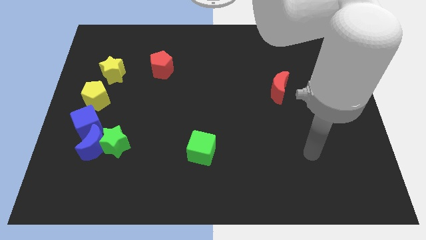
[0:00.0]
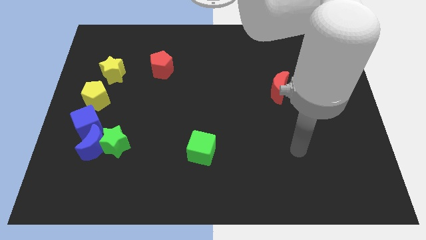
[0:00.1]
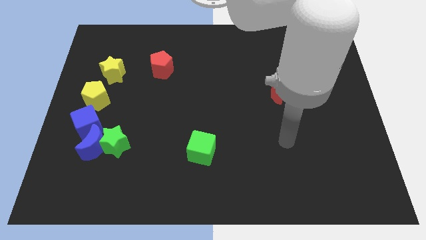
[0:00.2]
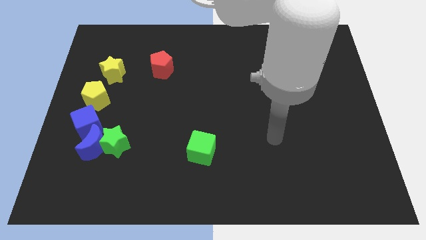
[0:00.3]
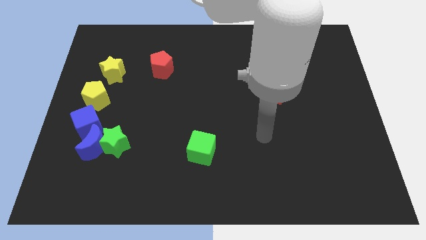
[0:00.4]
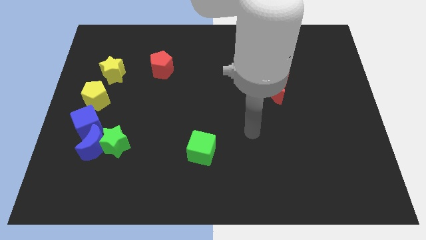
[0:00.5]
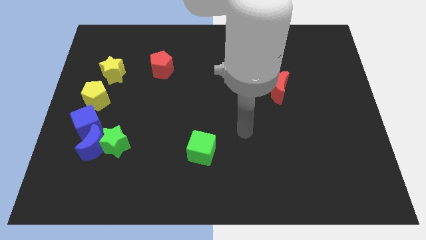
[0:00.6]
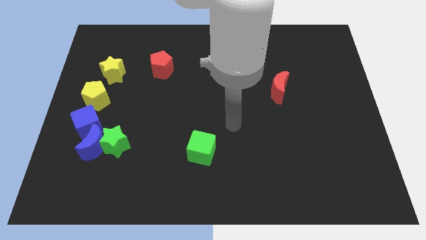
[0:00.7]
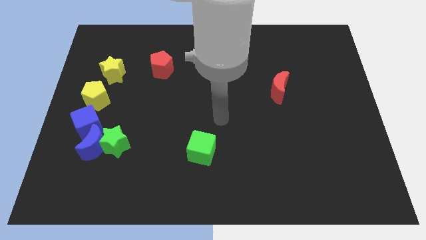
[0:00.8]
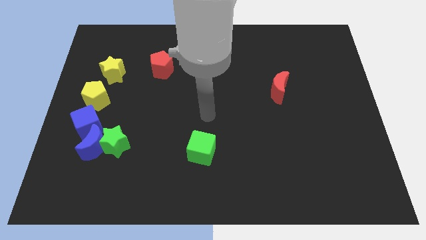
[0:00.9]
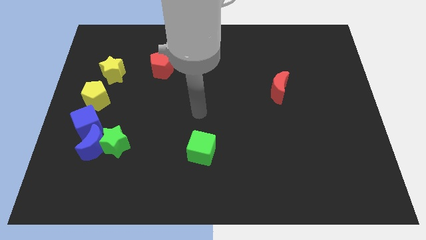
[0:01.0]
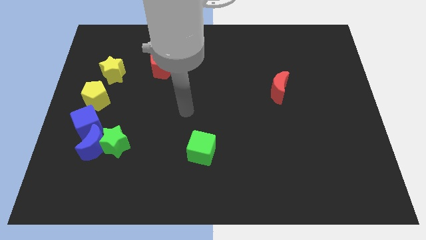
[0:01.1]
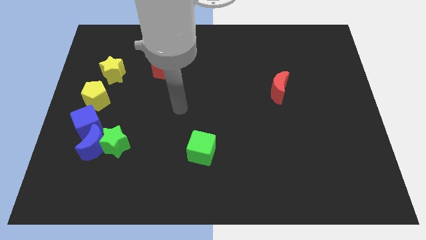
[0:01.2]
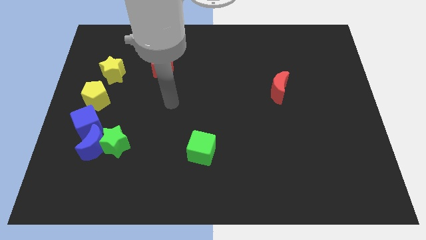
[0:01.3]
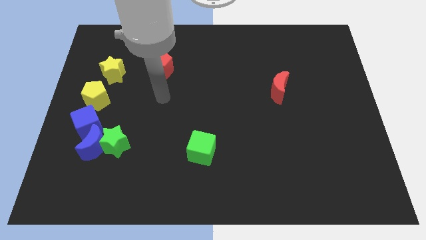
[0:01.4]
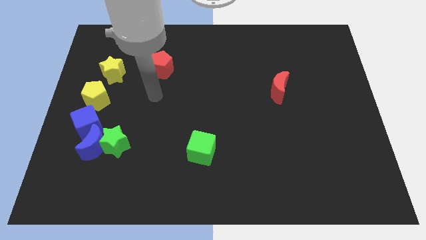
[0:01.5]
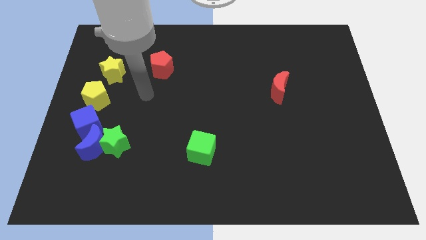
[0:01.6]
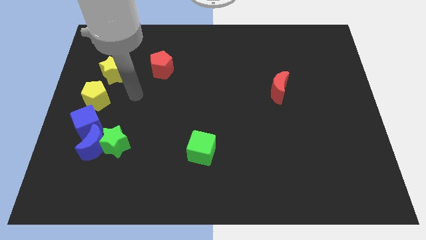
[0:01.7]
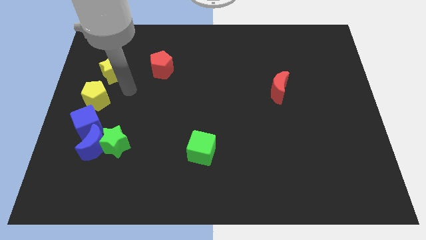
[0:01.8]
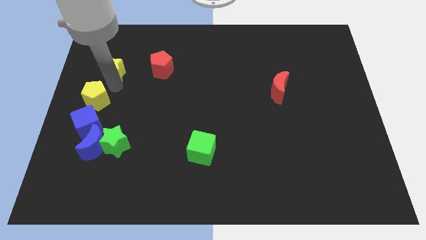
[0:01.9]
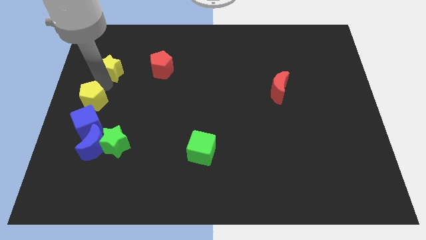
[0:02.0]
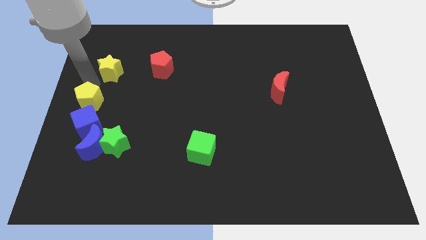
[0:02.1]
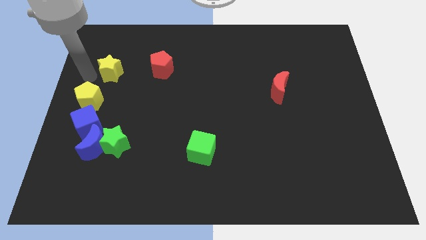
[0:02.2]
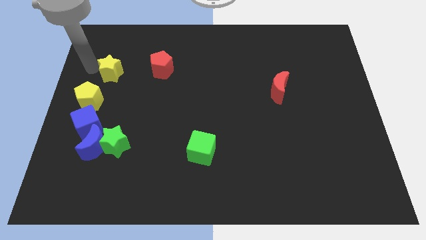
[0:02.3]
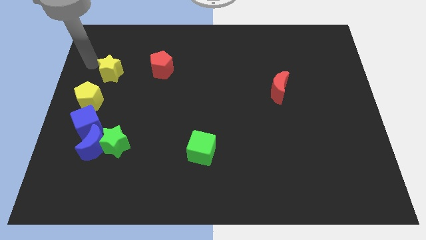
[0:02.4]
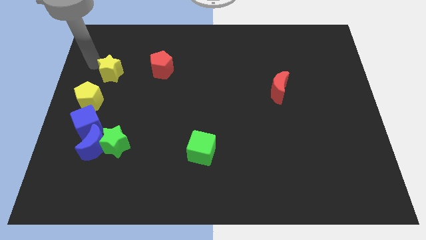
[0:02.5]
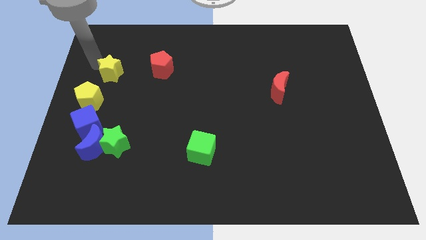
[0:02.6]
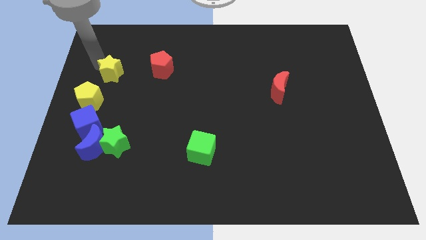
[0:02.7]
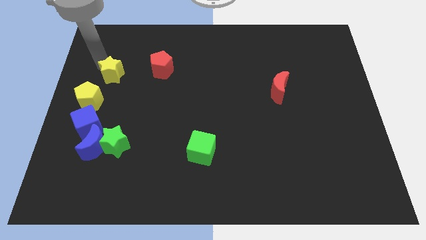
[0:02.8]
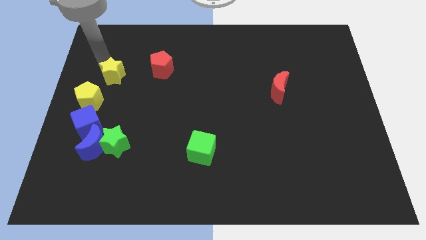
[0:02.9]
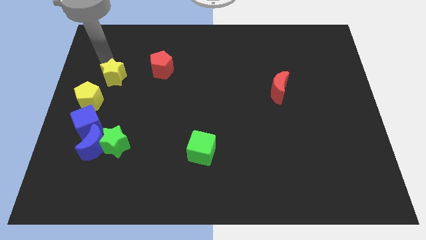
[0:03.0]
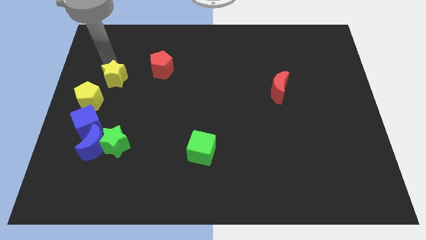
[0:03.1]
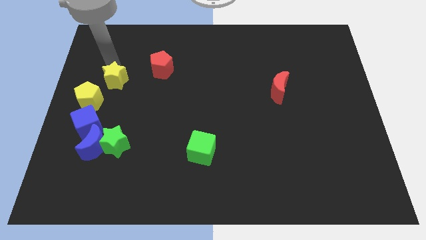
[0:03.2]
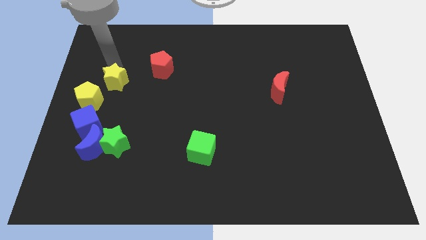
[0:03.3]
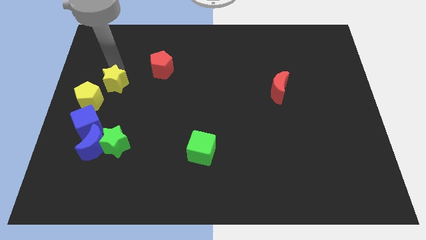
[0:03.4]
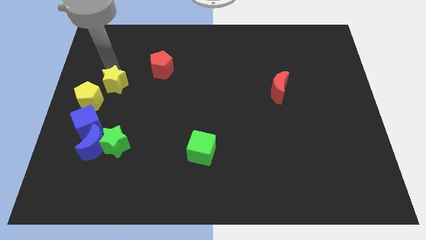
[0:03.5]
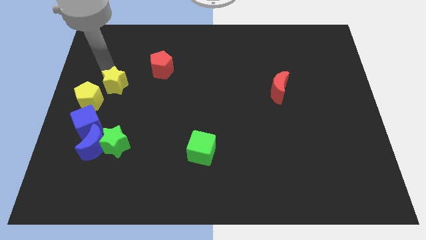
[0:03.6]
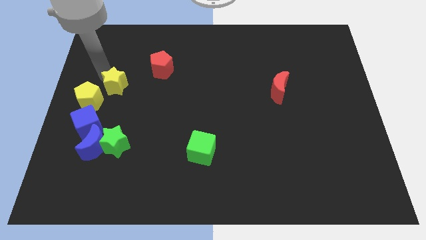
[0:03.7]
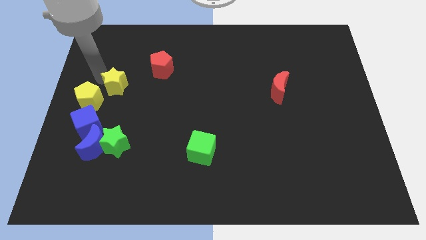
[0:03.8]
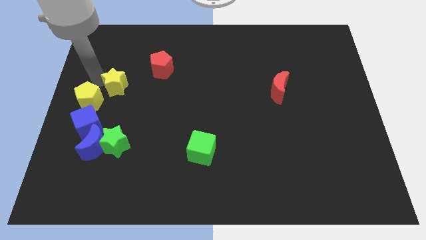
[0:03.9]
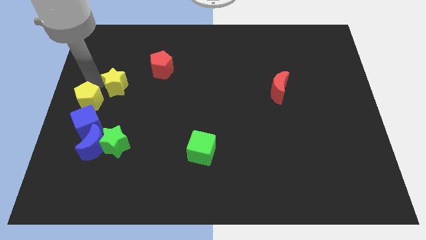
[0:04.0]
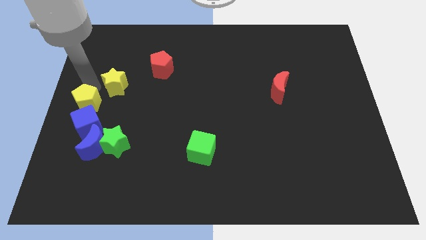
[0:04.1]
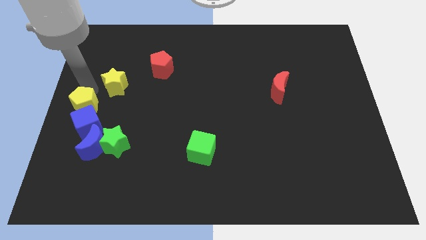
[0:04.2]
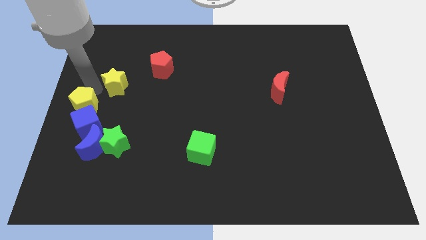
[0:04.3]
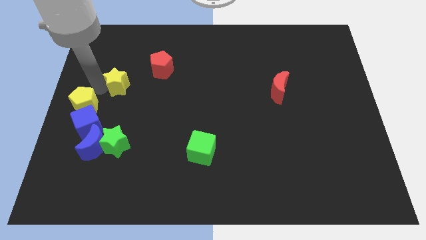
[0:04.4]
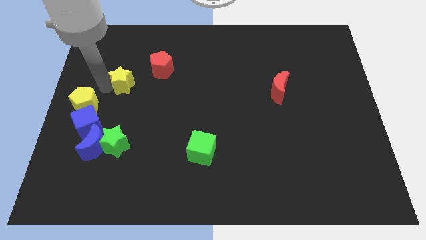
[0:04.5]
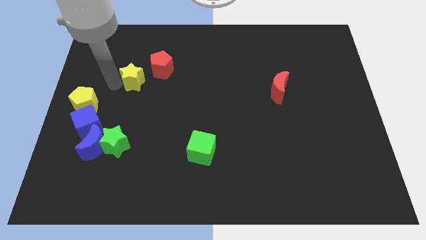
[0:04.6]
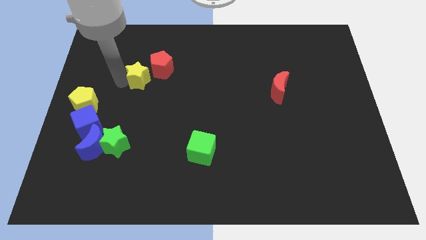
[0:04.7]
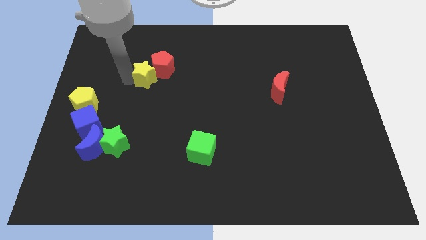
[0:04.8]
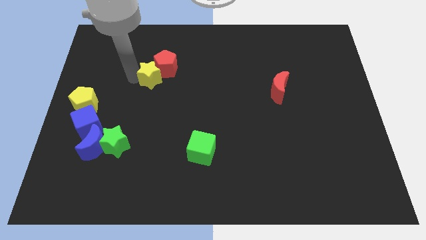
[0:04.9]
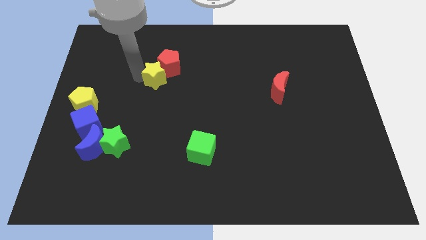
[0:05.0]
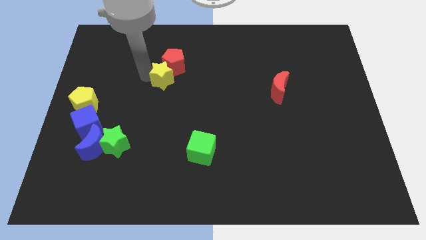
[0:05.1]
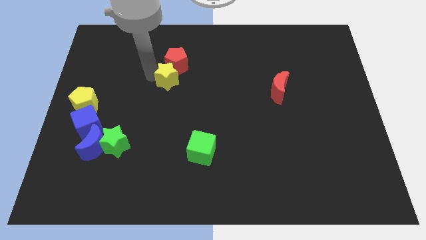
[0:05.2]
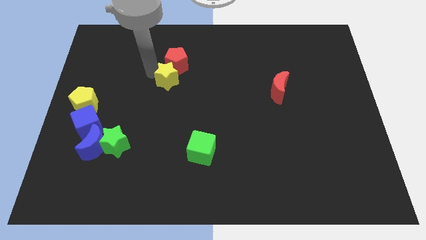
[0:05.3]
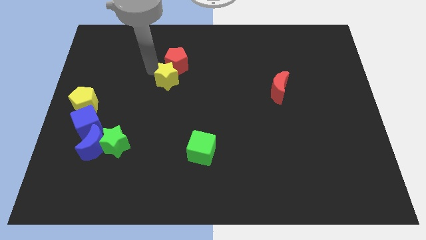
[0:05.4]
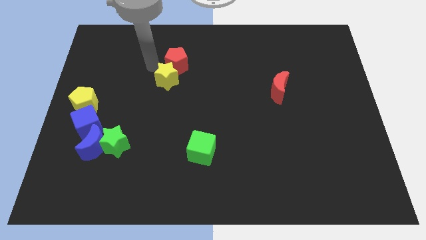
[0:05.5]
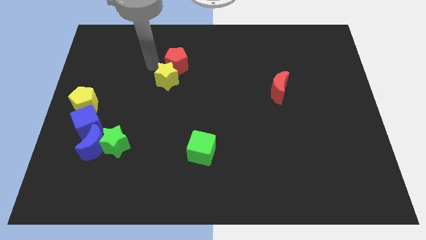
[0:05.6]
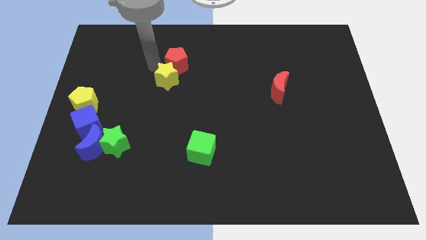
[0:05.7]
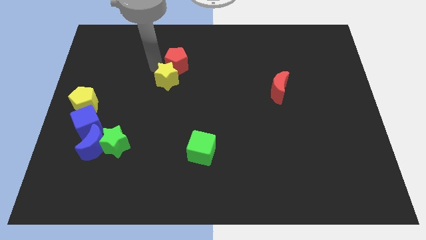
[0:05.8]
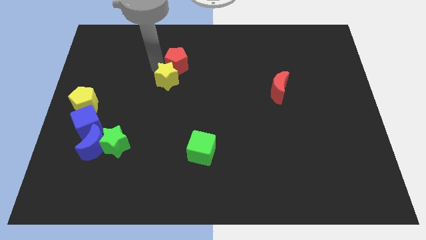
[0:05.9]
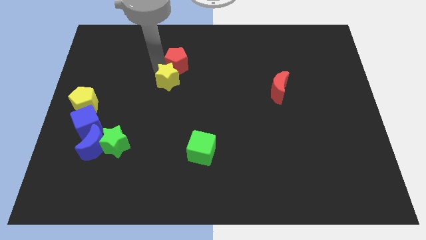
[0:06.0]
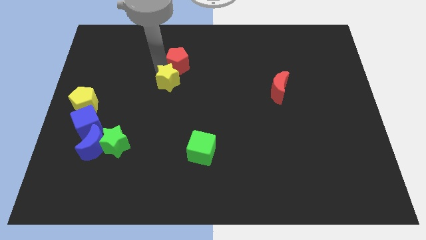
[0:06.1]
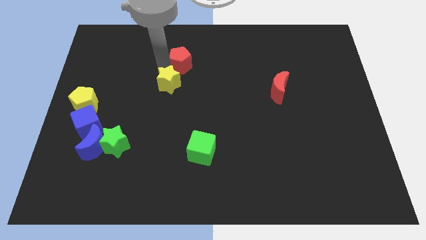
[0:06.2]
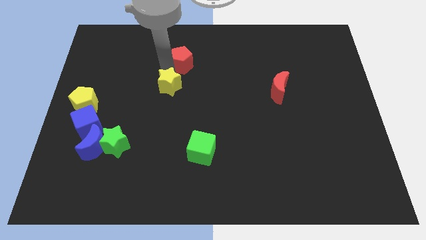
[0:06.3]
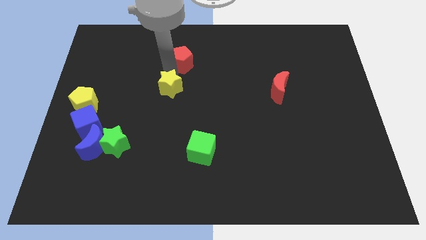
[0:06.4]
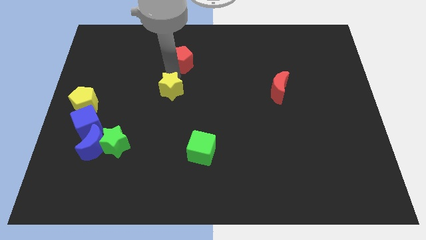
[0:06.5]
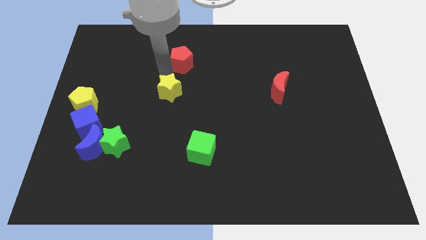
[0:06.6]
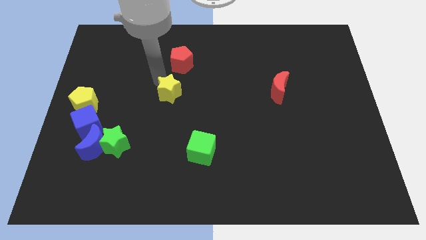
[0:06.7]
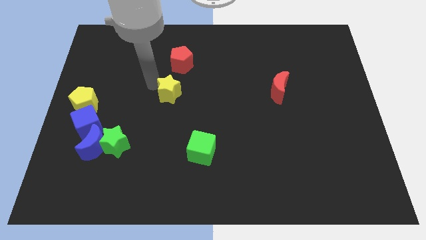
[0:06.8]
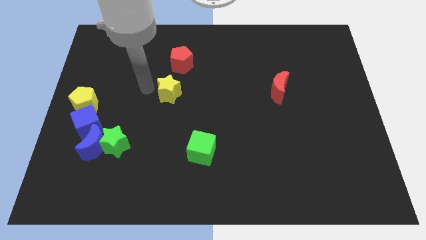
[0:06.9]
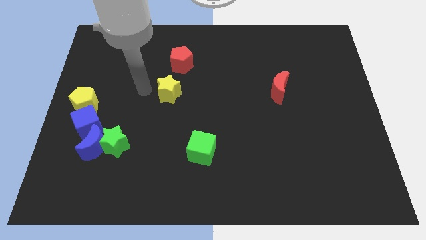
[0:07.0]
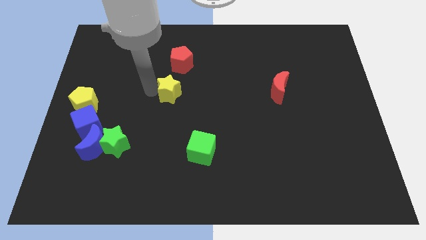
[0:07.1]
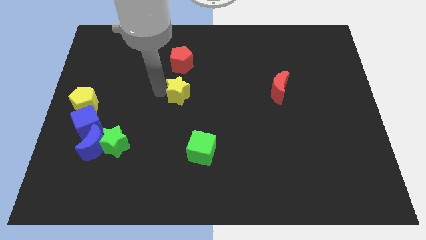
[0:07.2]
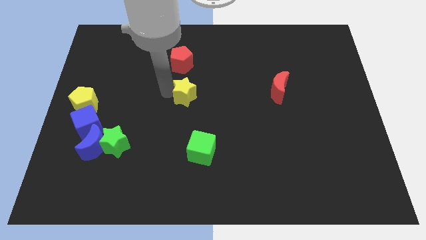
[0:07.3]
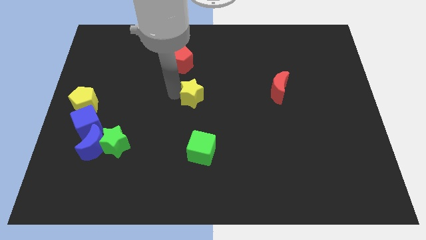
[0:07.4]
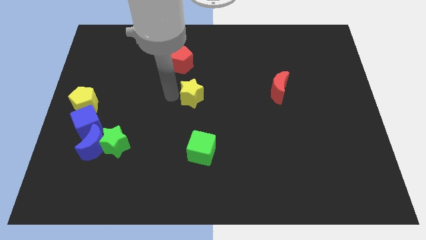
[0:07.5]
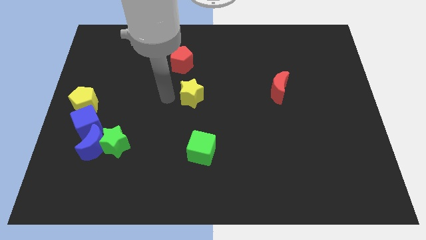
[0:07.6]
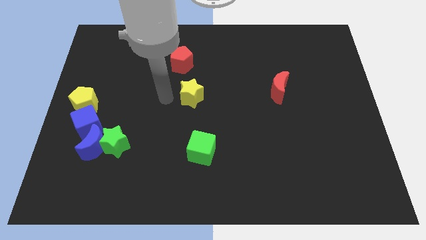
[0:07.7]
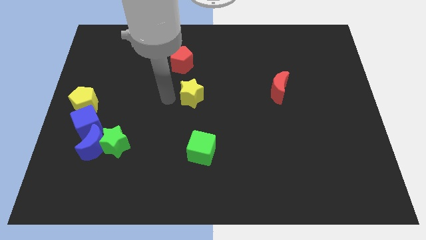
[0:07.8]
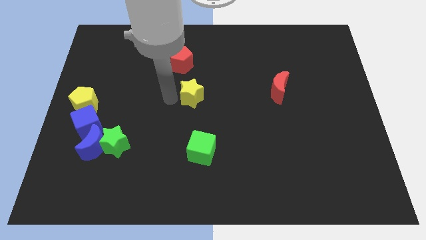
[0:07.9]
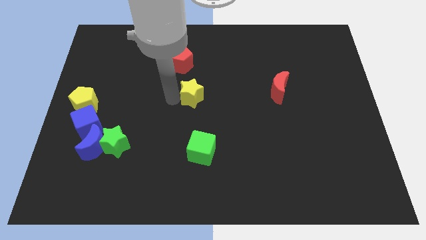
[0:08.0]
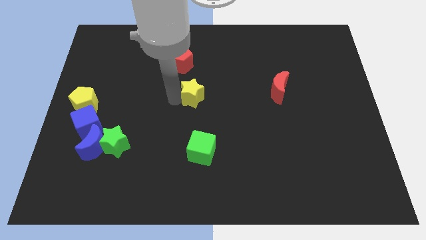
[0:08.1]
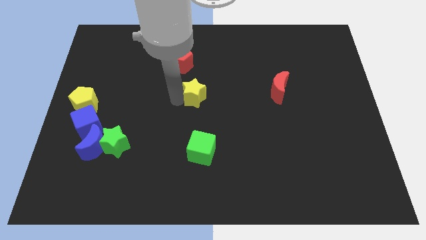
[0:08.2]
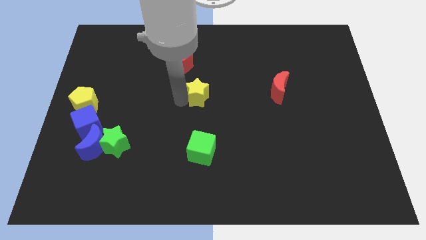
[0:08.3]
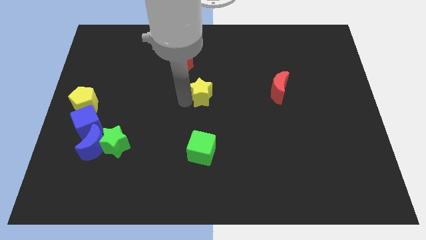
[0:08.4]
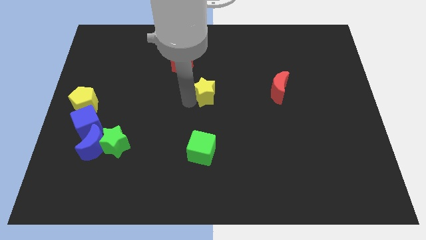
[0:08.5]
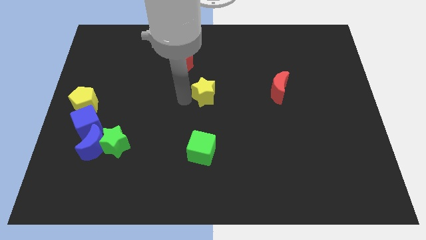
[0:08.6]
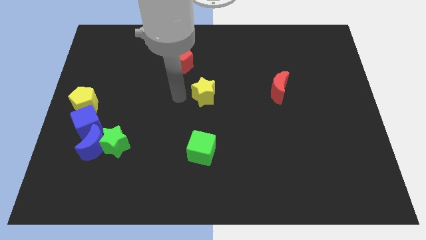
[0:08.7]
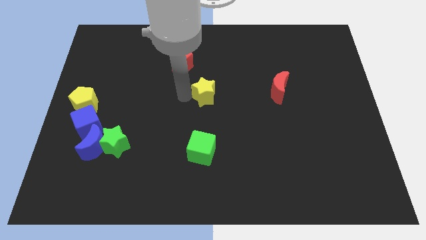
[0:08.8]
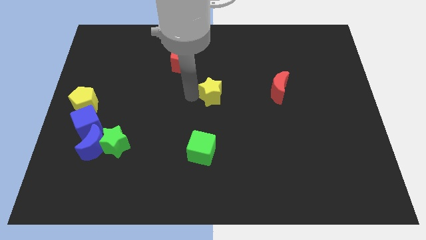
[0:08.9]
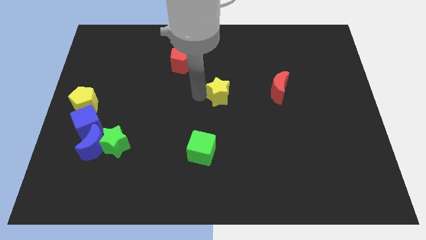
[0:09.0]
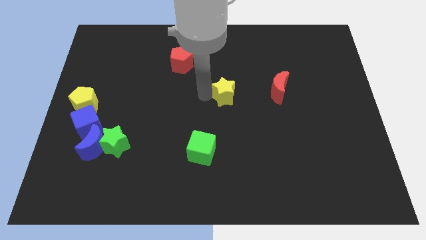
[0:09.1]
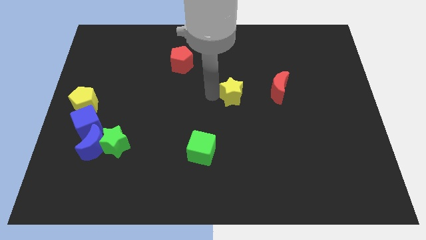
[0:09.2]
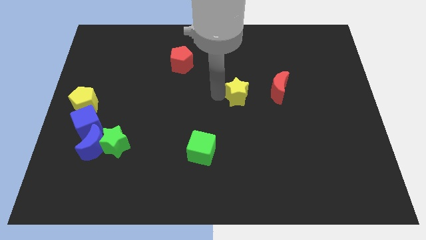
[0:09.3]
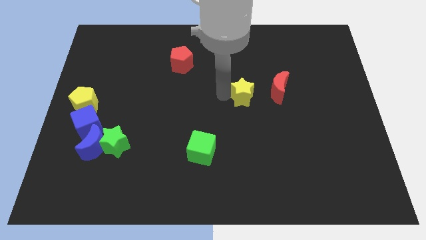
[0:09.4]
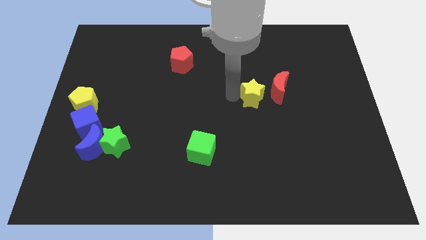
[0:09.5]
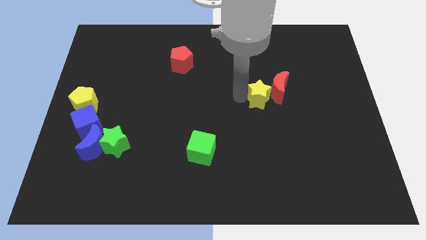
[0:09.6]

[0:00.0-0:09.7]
slide the yellow star close to the red moon
